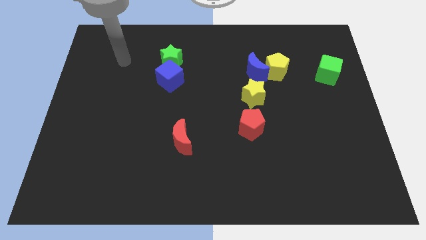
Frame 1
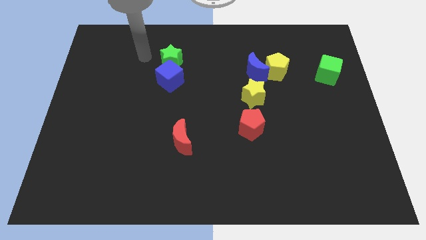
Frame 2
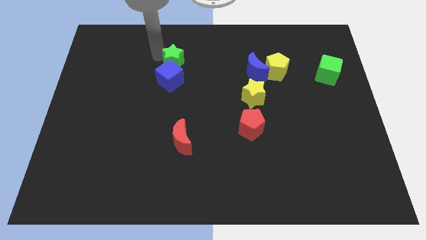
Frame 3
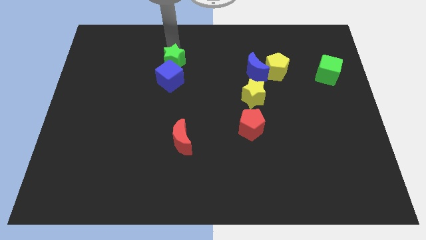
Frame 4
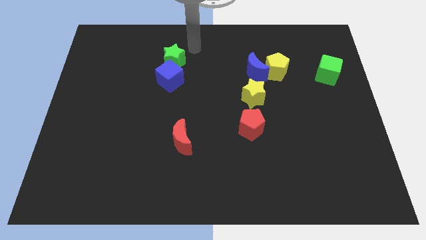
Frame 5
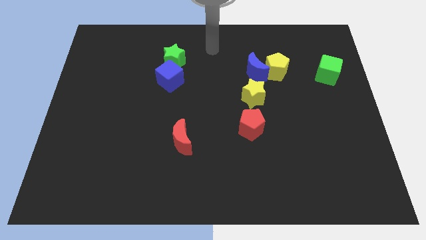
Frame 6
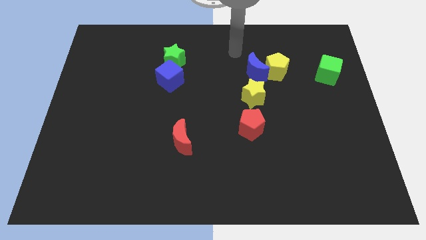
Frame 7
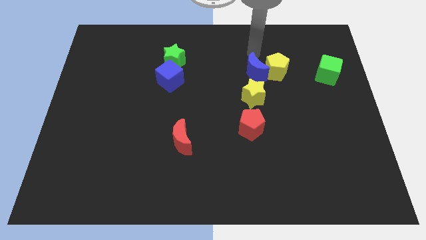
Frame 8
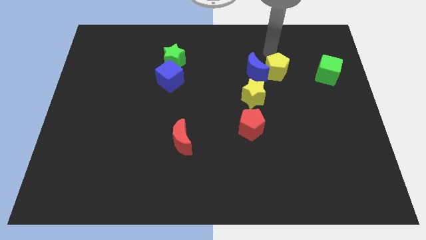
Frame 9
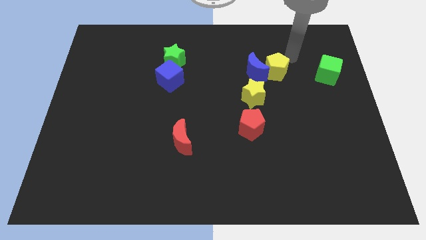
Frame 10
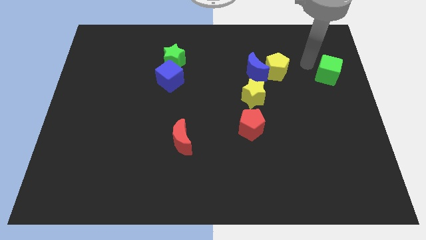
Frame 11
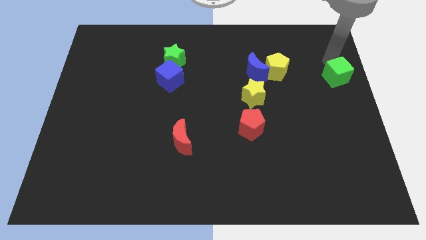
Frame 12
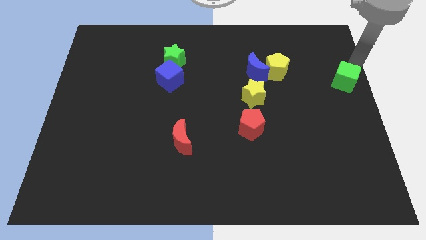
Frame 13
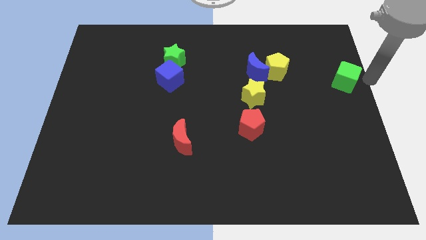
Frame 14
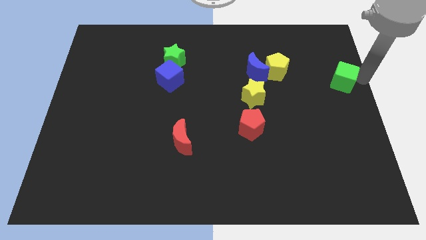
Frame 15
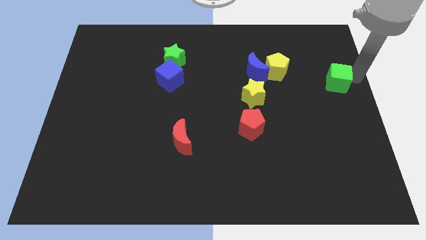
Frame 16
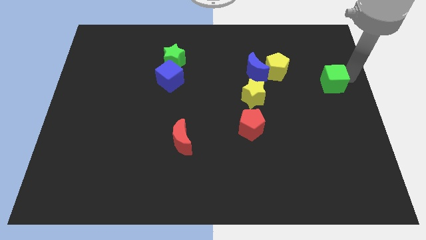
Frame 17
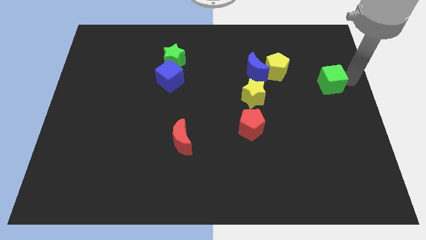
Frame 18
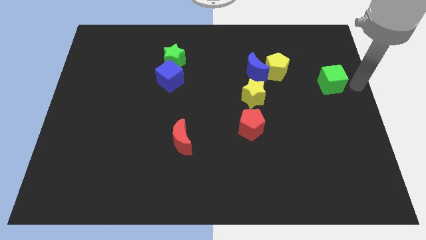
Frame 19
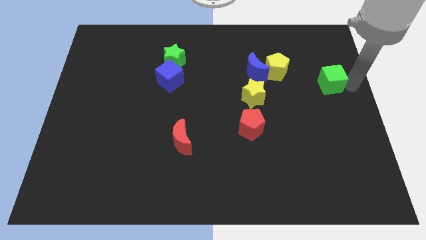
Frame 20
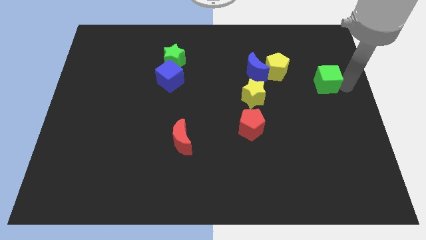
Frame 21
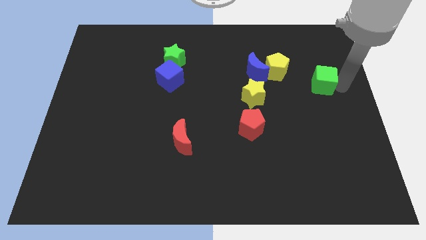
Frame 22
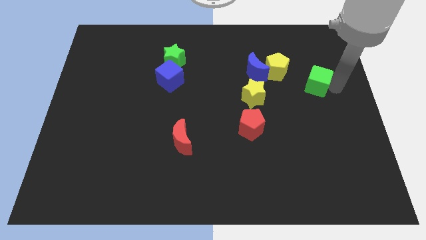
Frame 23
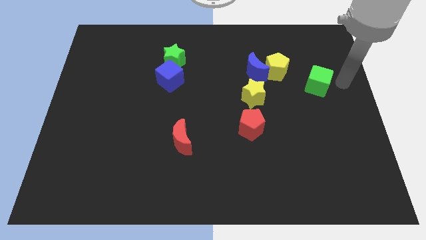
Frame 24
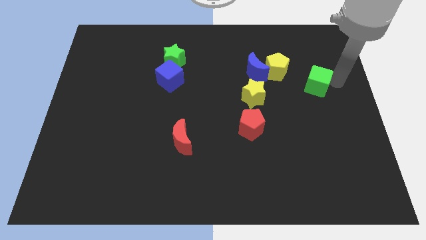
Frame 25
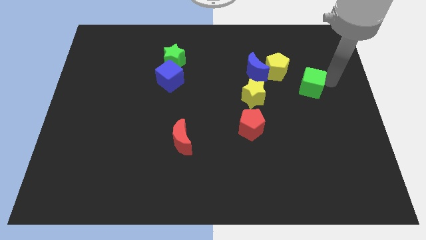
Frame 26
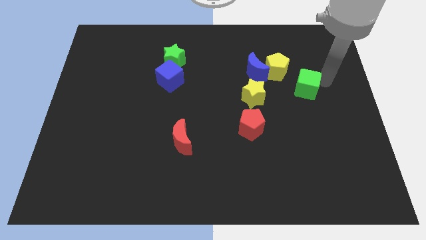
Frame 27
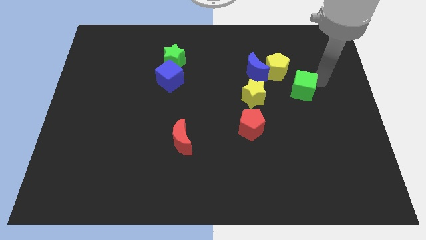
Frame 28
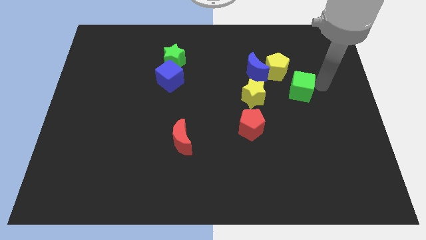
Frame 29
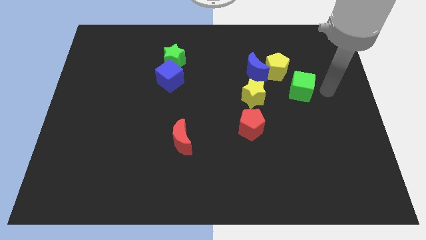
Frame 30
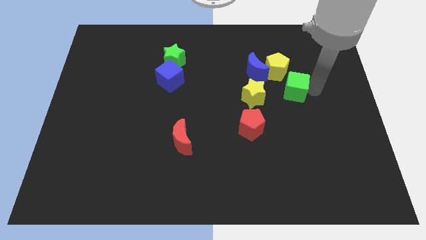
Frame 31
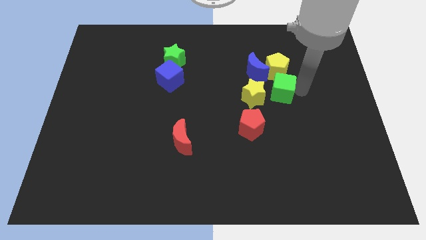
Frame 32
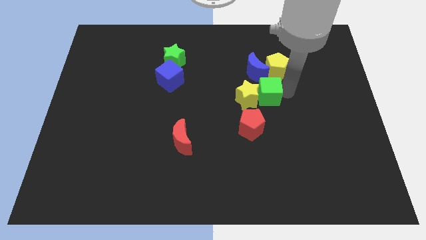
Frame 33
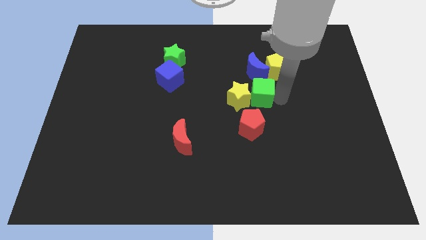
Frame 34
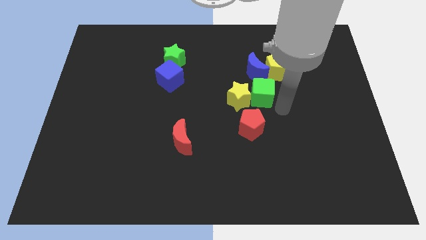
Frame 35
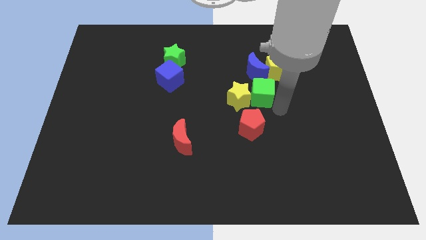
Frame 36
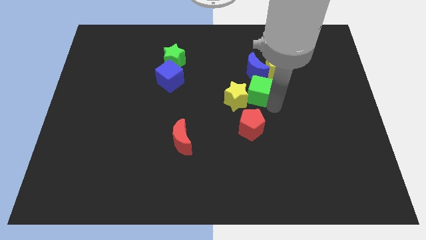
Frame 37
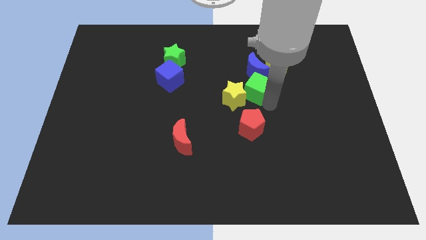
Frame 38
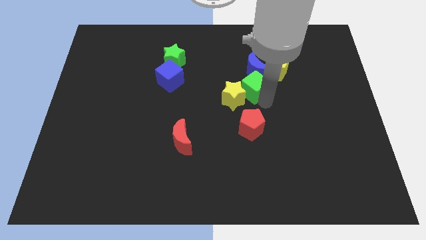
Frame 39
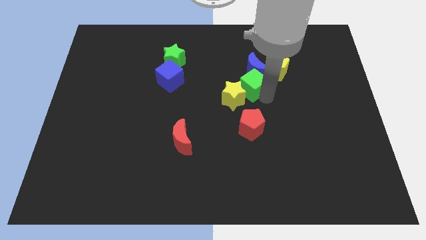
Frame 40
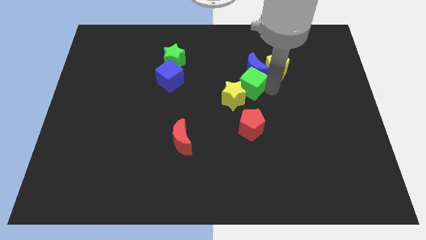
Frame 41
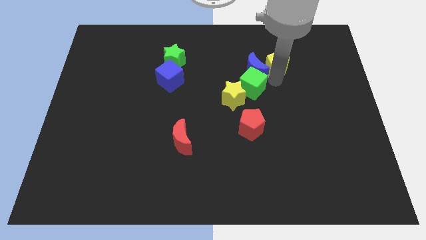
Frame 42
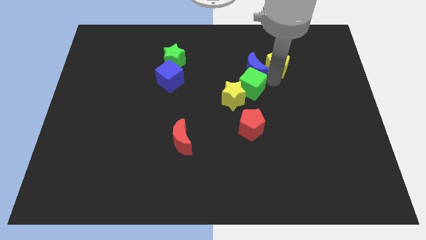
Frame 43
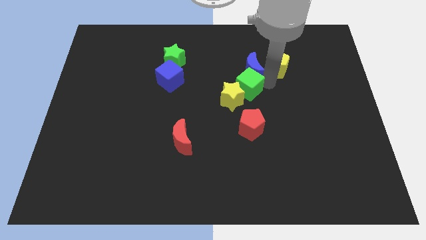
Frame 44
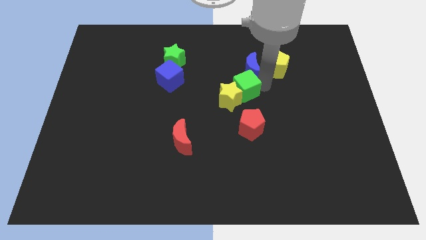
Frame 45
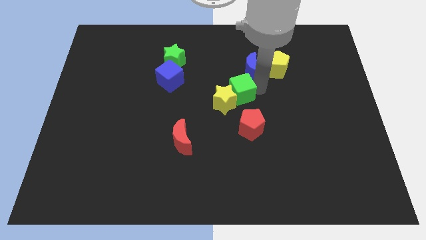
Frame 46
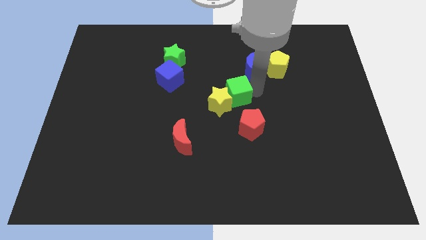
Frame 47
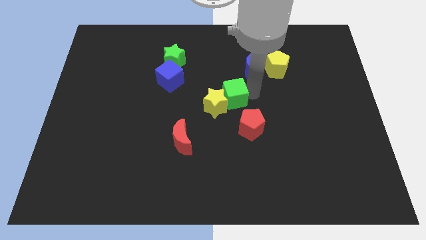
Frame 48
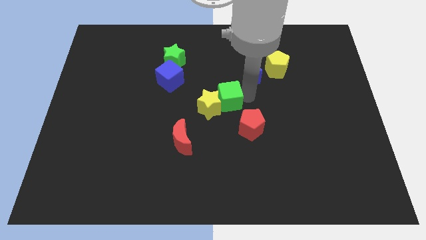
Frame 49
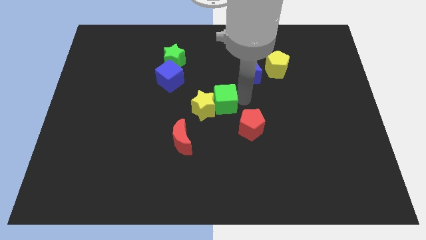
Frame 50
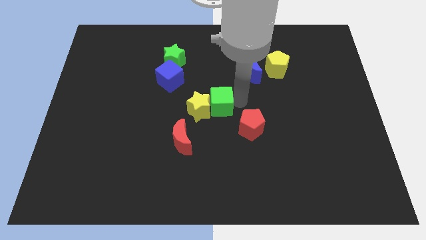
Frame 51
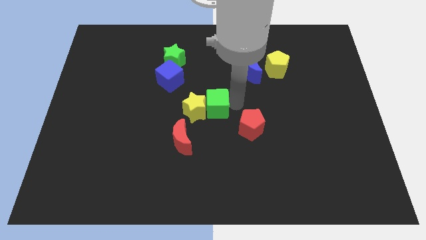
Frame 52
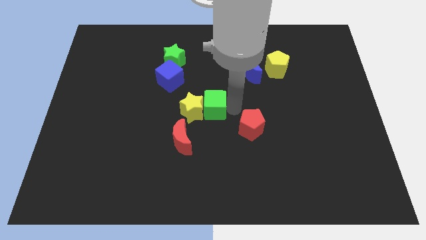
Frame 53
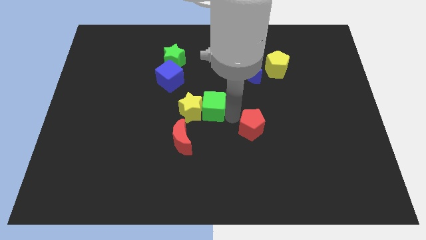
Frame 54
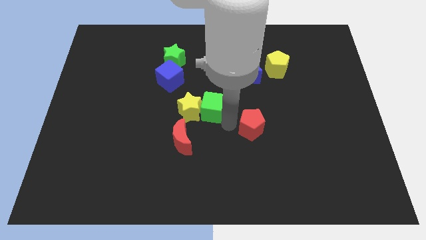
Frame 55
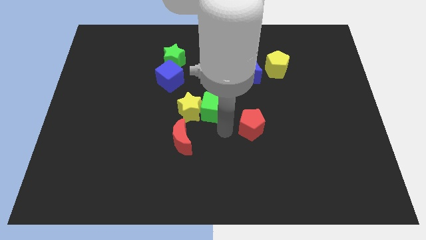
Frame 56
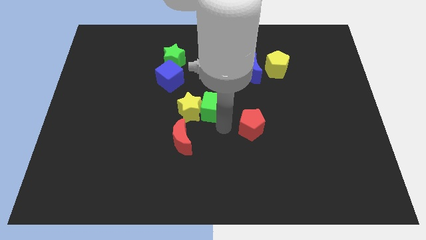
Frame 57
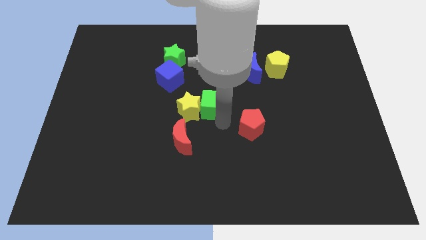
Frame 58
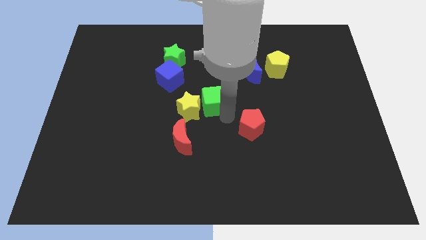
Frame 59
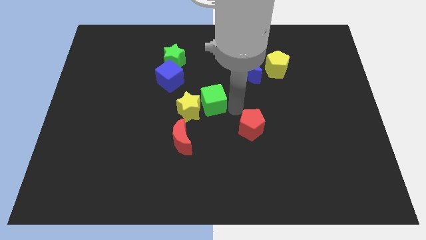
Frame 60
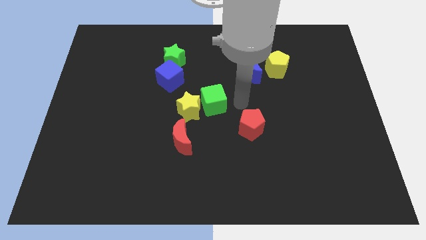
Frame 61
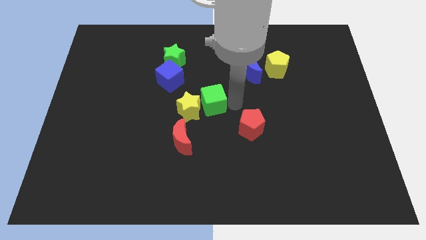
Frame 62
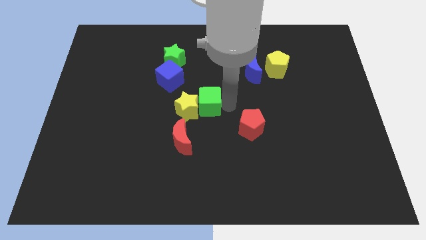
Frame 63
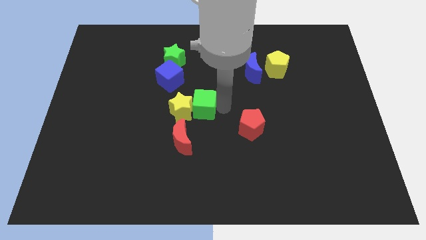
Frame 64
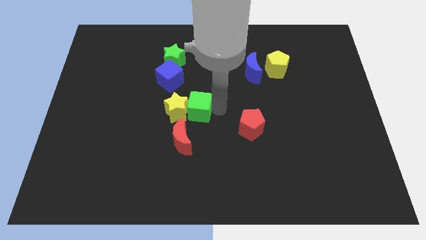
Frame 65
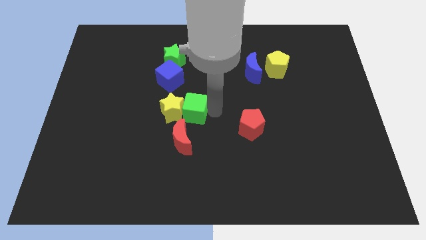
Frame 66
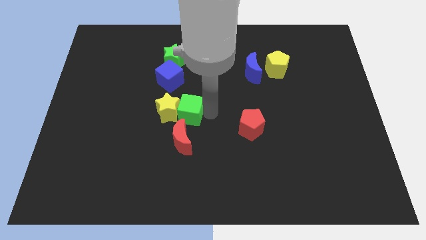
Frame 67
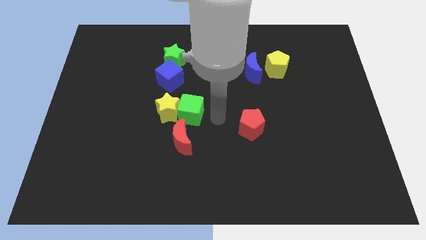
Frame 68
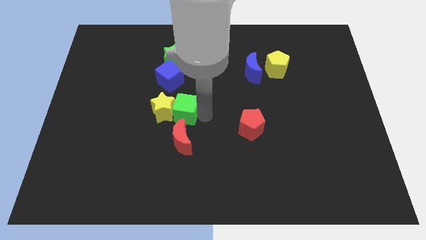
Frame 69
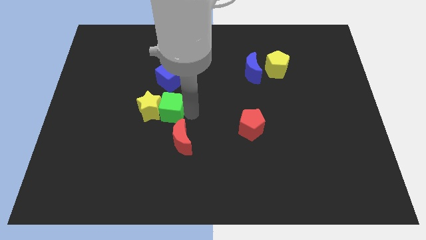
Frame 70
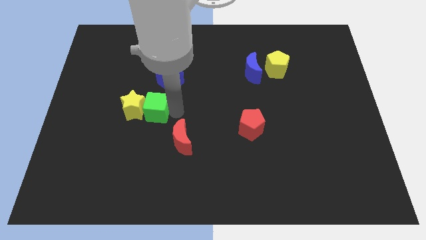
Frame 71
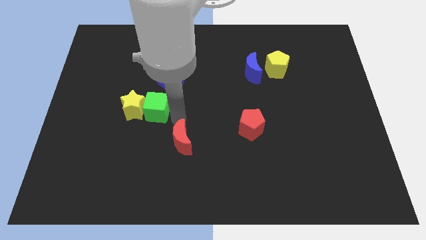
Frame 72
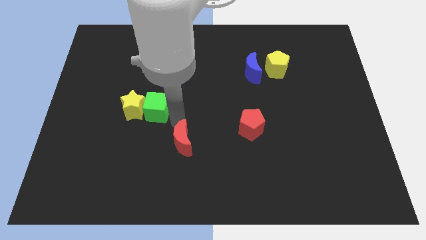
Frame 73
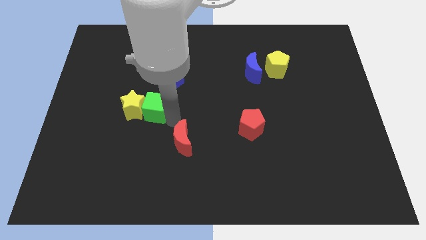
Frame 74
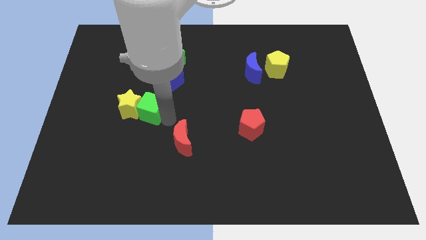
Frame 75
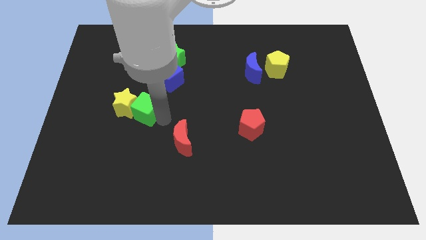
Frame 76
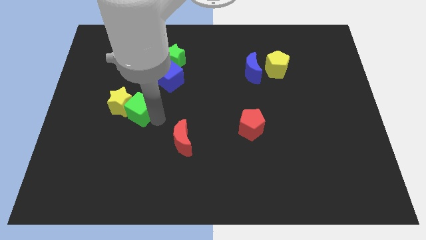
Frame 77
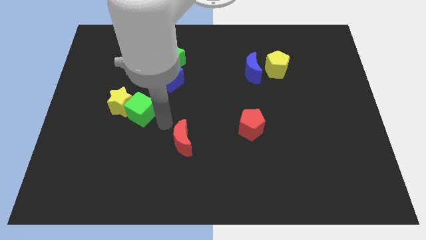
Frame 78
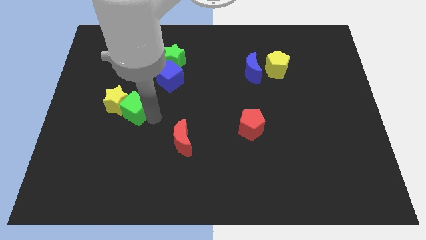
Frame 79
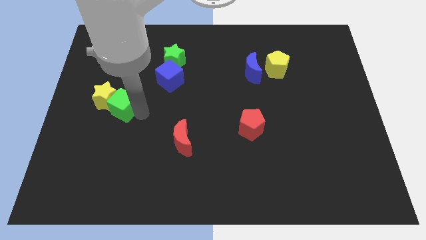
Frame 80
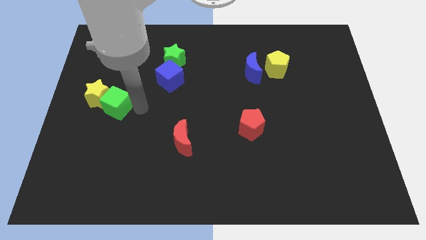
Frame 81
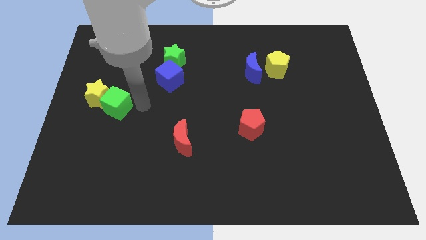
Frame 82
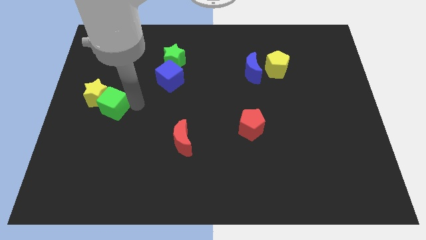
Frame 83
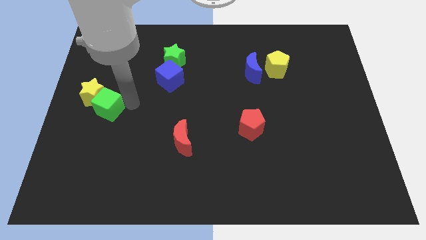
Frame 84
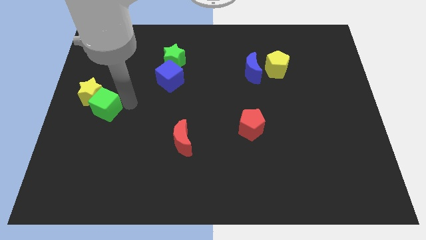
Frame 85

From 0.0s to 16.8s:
slide the green cube to the left side
